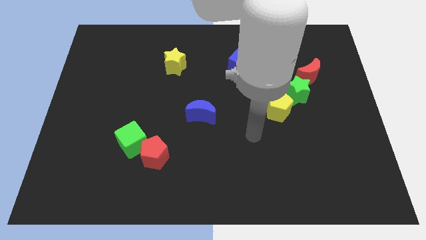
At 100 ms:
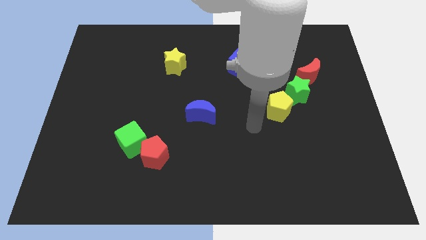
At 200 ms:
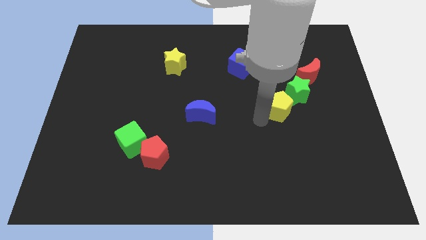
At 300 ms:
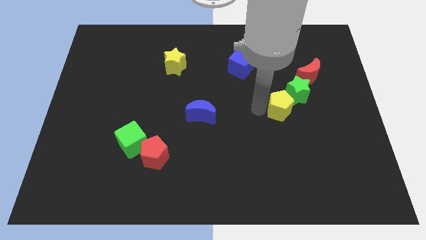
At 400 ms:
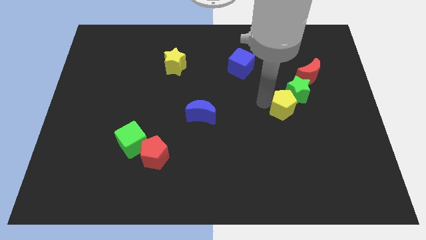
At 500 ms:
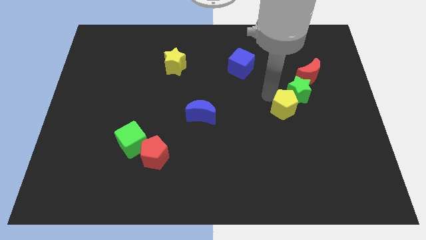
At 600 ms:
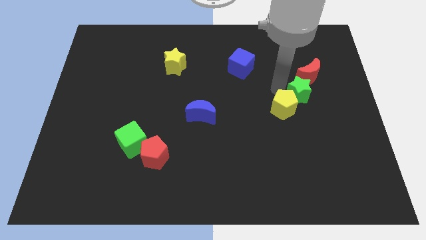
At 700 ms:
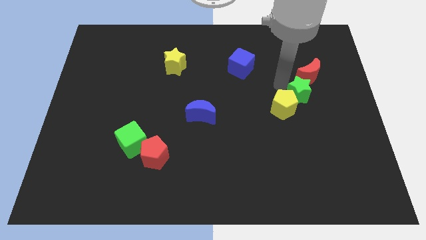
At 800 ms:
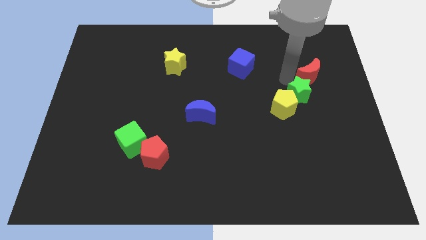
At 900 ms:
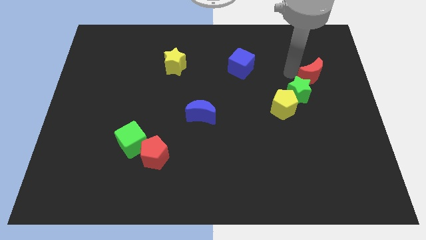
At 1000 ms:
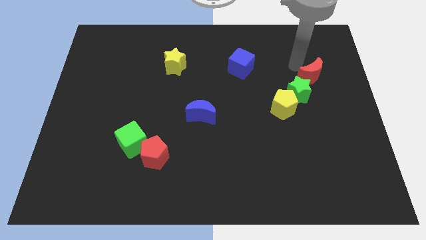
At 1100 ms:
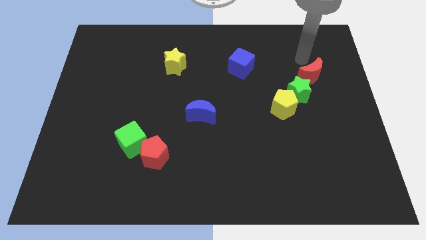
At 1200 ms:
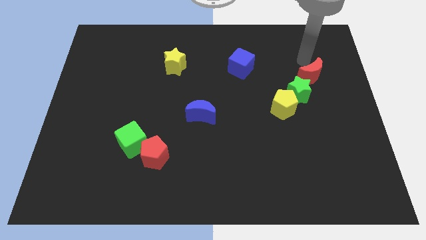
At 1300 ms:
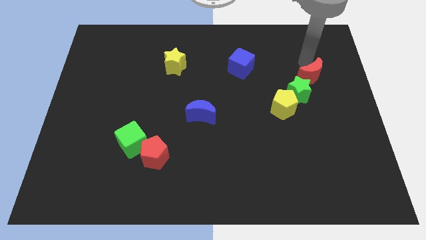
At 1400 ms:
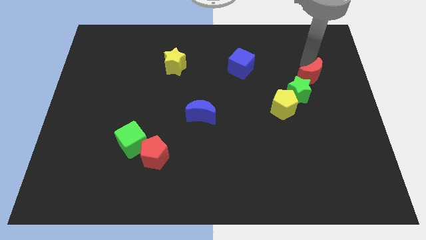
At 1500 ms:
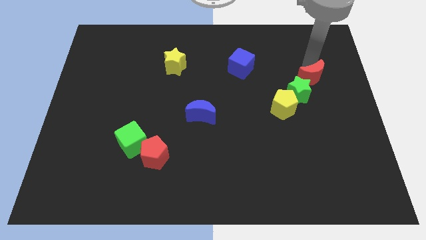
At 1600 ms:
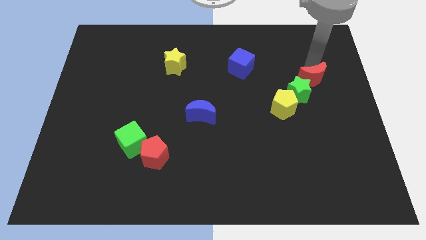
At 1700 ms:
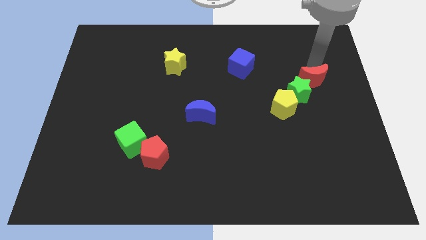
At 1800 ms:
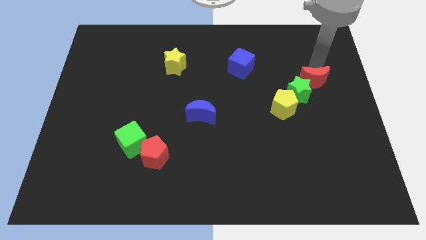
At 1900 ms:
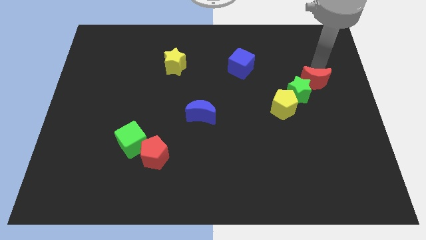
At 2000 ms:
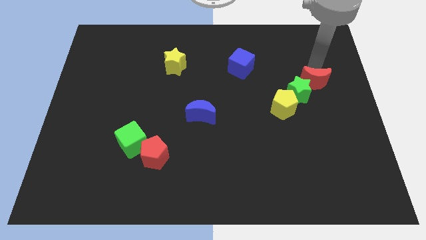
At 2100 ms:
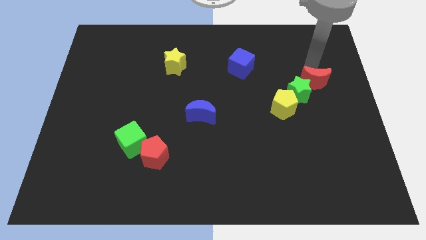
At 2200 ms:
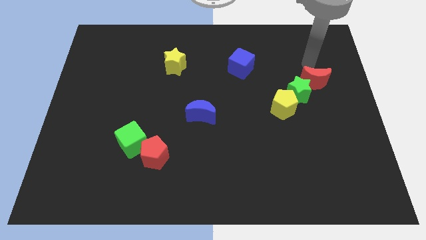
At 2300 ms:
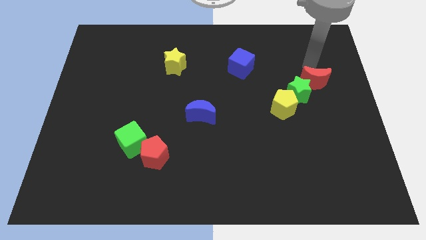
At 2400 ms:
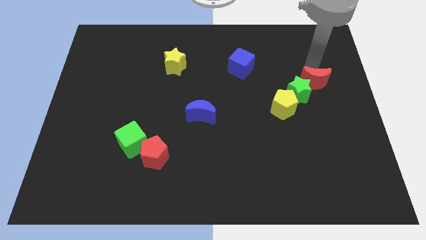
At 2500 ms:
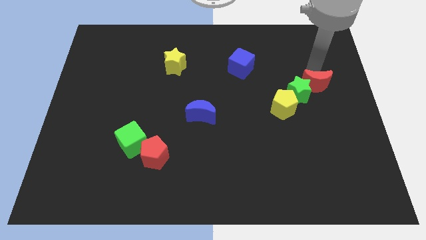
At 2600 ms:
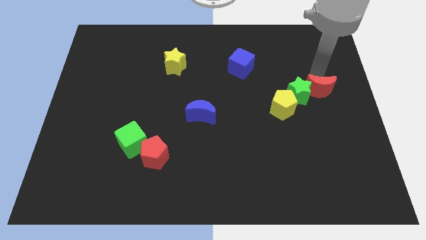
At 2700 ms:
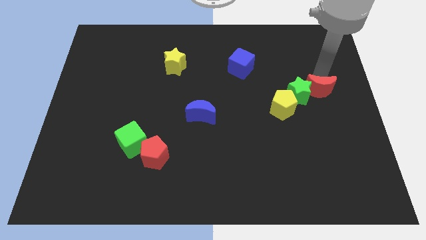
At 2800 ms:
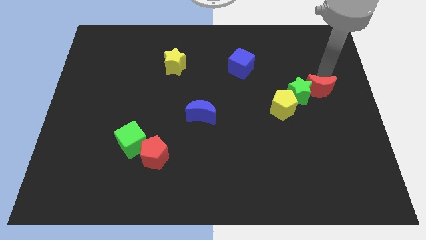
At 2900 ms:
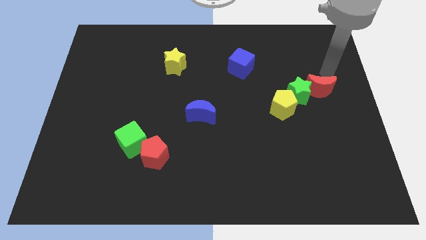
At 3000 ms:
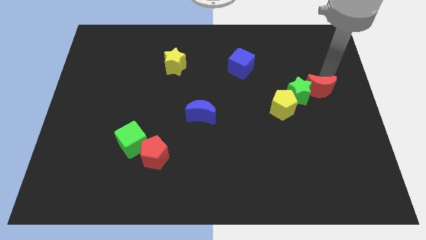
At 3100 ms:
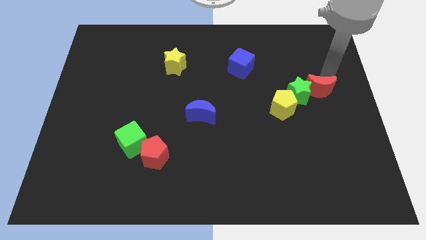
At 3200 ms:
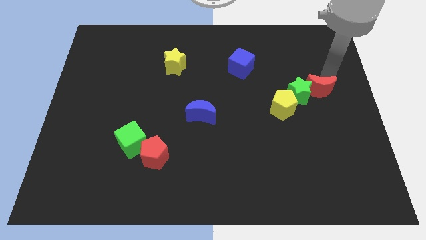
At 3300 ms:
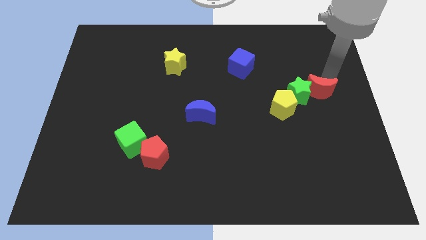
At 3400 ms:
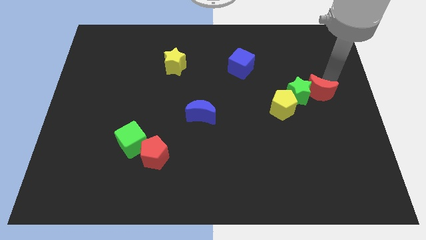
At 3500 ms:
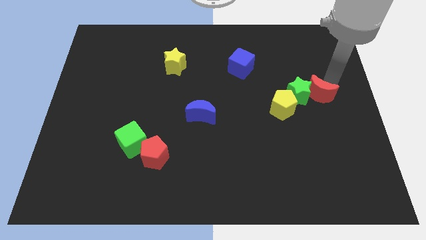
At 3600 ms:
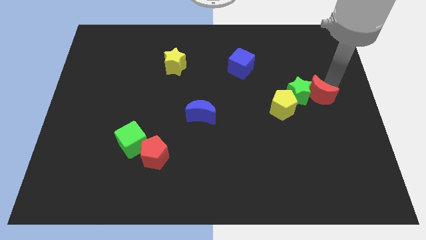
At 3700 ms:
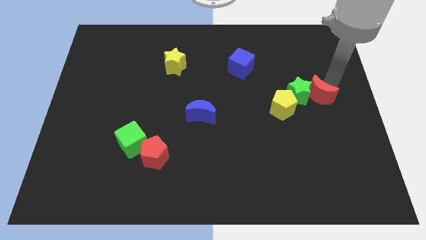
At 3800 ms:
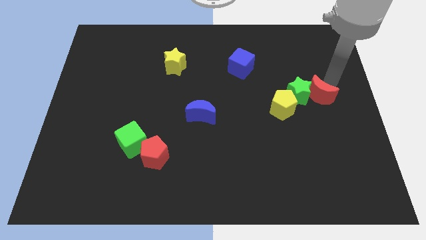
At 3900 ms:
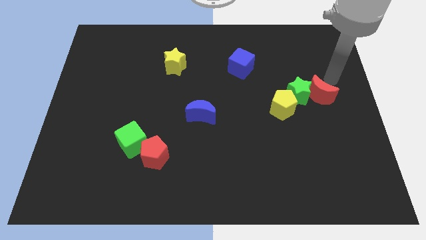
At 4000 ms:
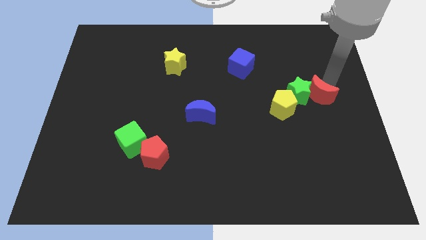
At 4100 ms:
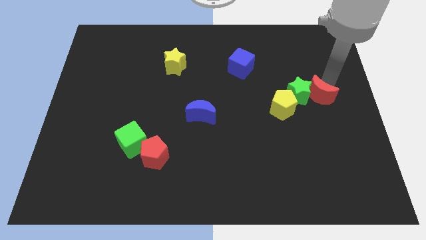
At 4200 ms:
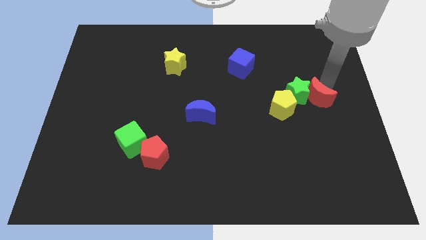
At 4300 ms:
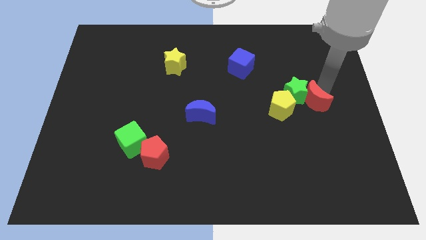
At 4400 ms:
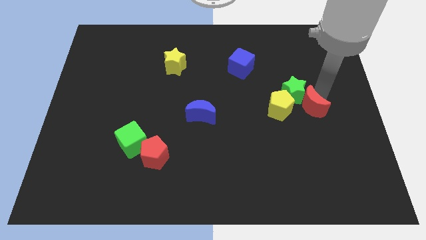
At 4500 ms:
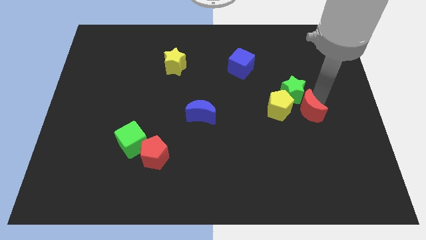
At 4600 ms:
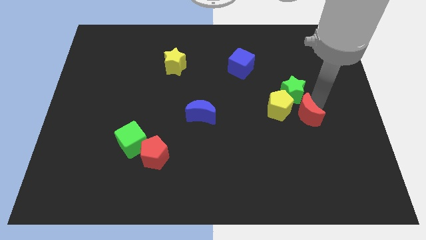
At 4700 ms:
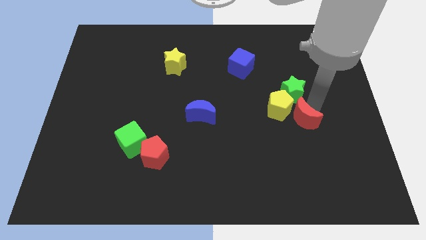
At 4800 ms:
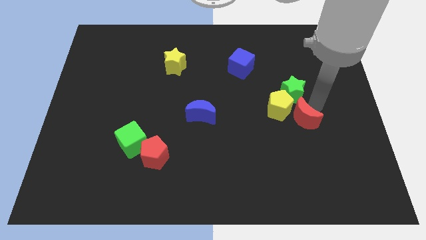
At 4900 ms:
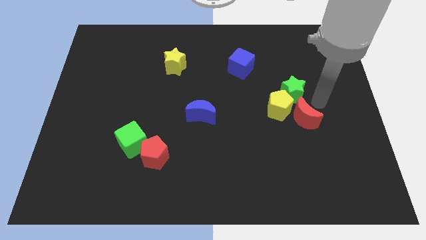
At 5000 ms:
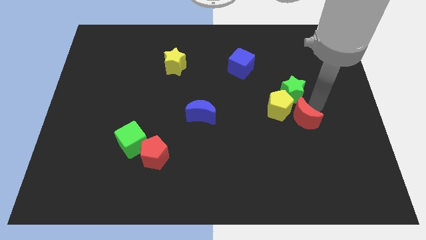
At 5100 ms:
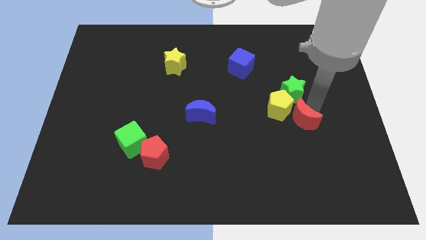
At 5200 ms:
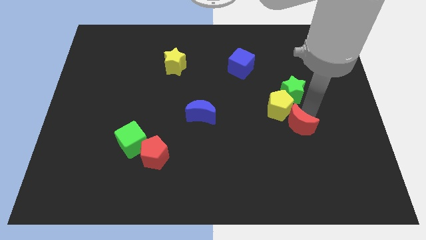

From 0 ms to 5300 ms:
move the red moon below the yellow pentagon

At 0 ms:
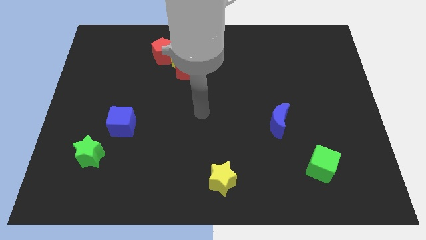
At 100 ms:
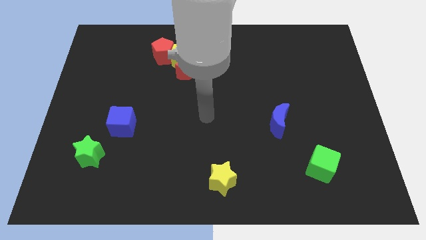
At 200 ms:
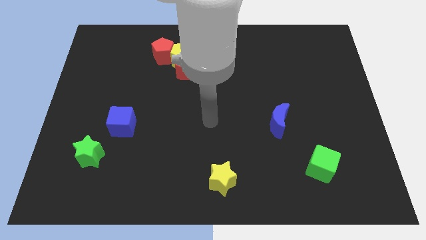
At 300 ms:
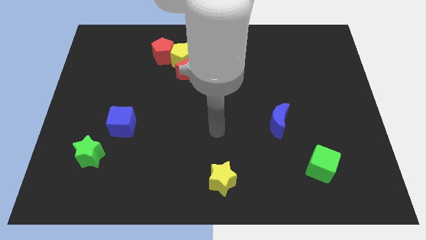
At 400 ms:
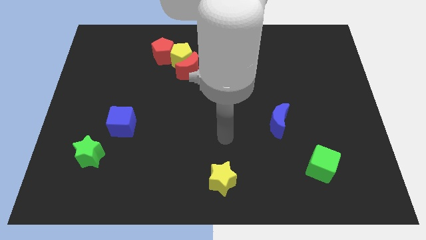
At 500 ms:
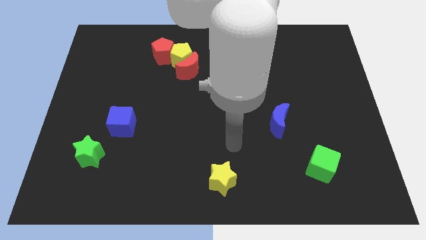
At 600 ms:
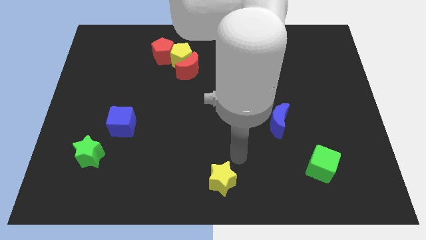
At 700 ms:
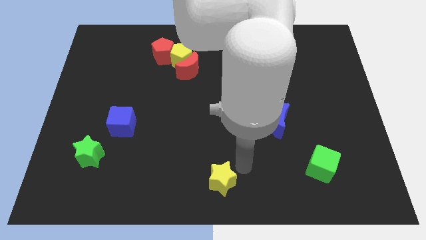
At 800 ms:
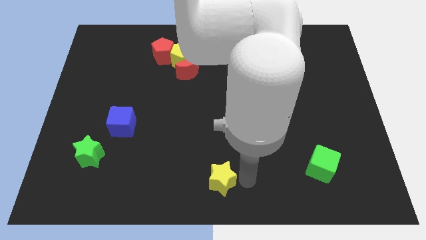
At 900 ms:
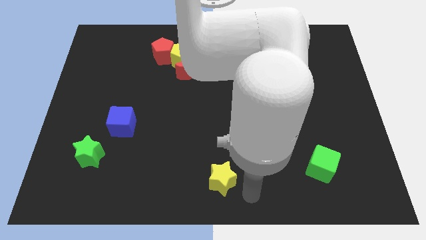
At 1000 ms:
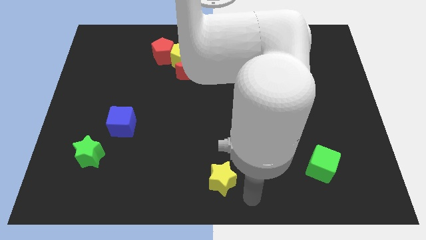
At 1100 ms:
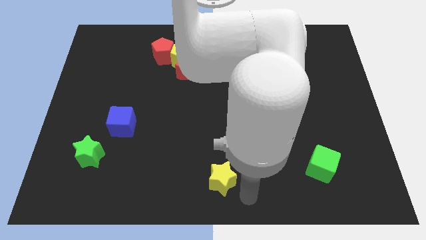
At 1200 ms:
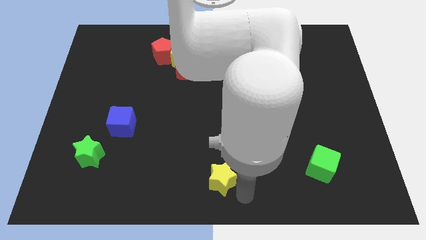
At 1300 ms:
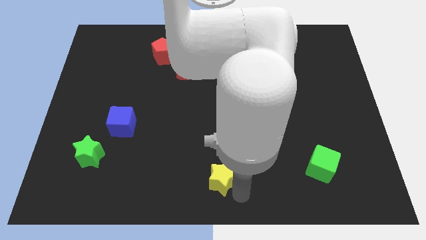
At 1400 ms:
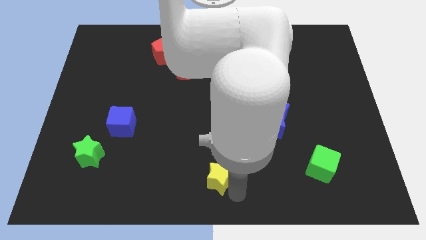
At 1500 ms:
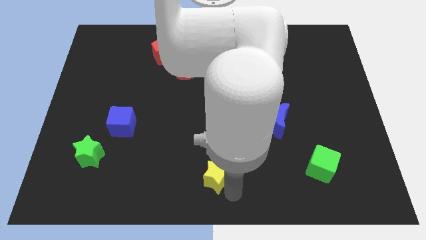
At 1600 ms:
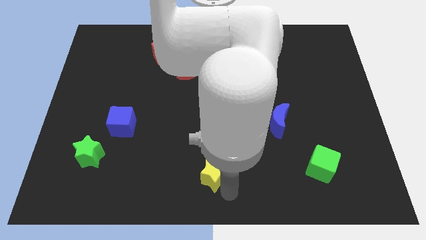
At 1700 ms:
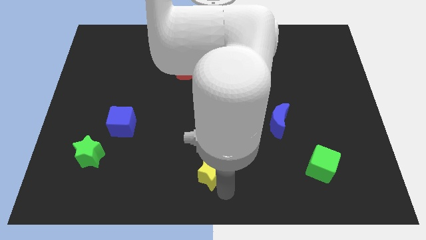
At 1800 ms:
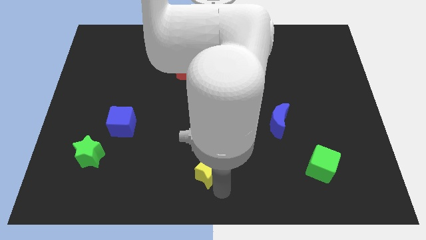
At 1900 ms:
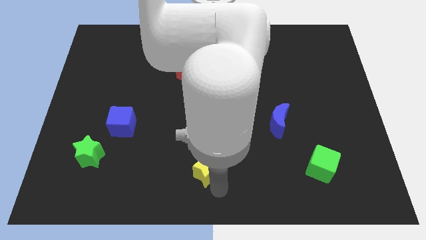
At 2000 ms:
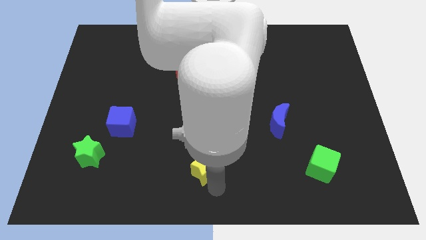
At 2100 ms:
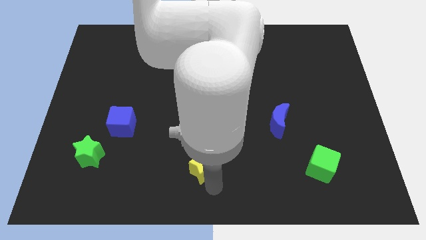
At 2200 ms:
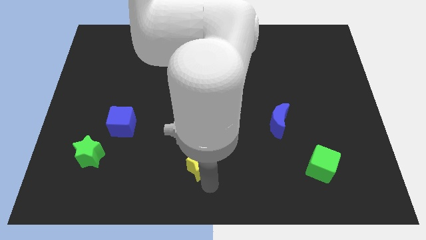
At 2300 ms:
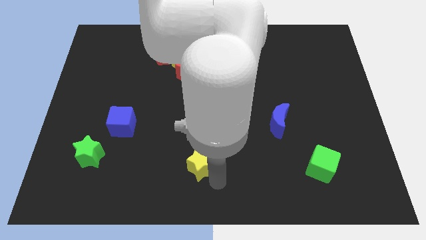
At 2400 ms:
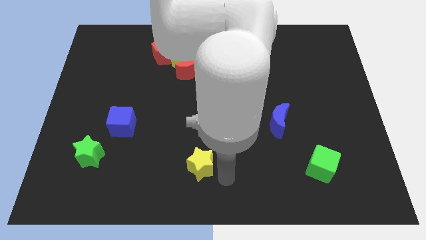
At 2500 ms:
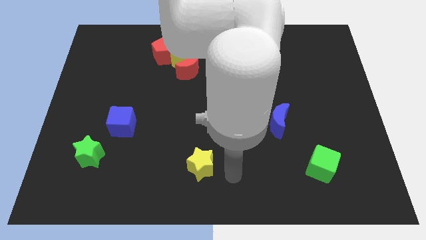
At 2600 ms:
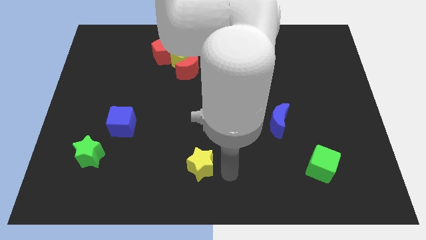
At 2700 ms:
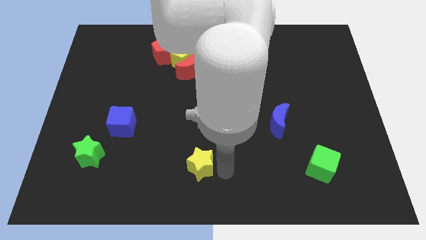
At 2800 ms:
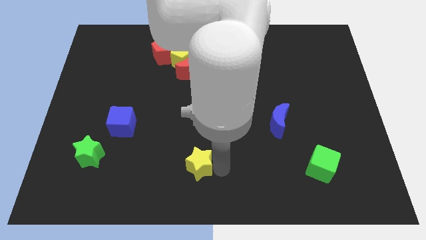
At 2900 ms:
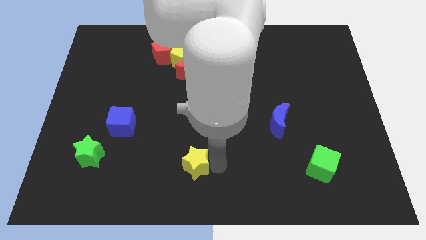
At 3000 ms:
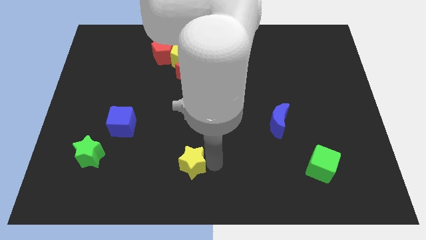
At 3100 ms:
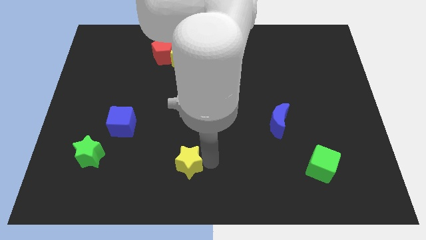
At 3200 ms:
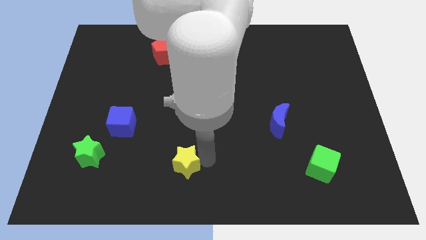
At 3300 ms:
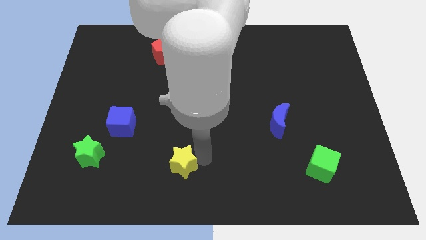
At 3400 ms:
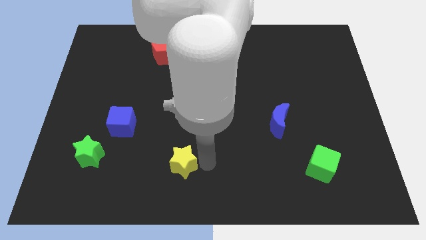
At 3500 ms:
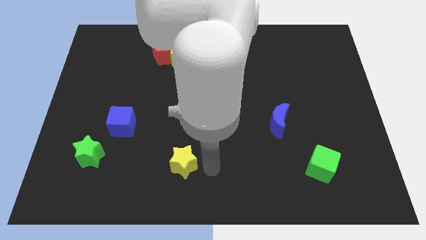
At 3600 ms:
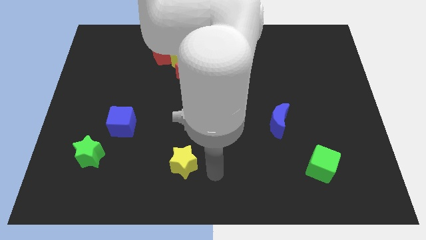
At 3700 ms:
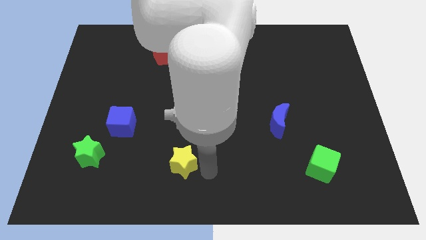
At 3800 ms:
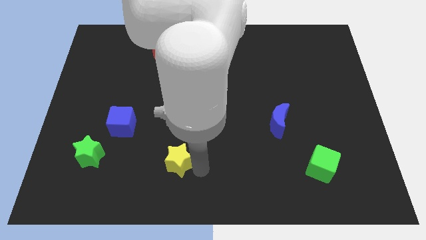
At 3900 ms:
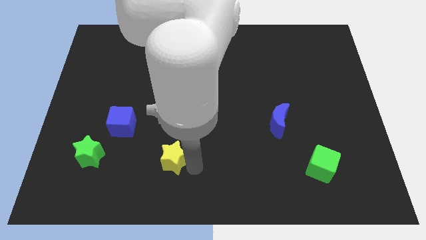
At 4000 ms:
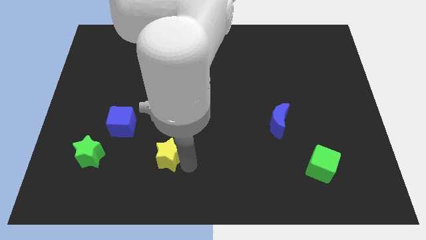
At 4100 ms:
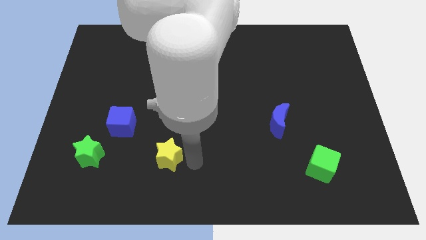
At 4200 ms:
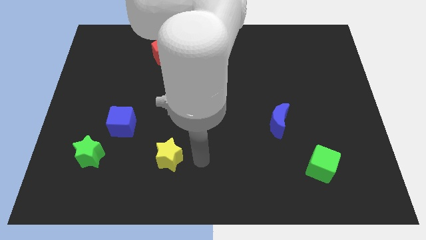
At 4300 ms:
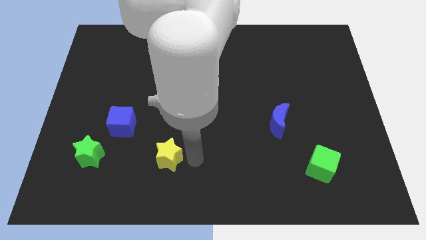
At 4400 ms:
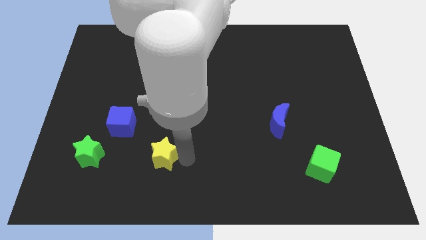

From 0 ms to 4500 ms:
slide the yellow star to the right of the green star
